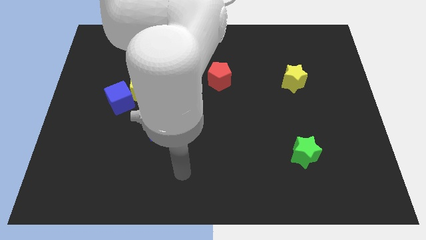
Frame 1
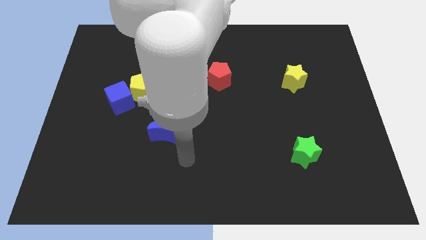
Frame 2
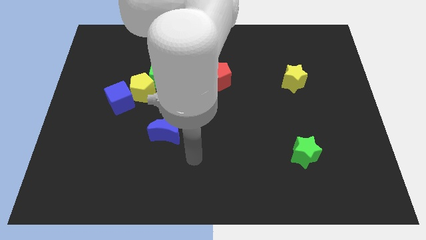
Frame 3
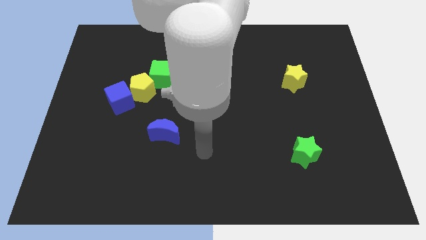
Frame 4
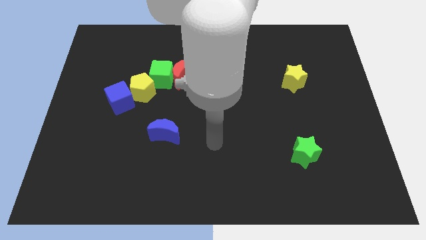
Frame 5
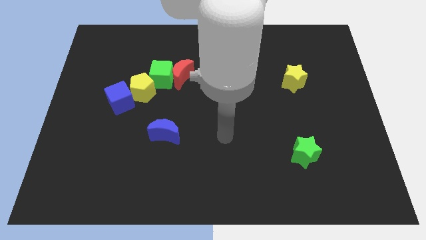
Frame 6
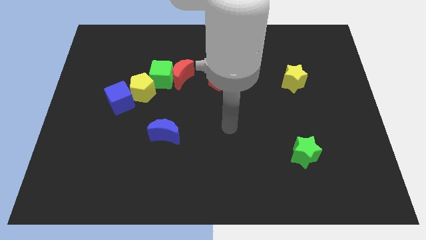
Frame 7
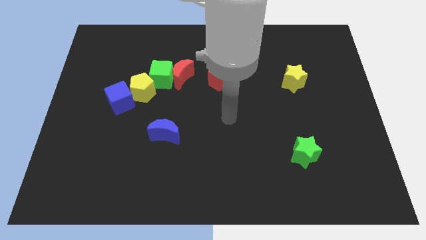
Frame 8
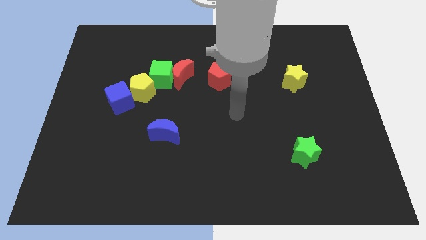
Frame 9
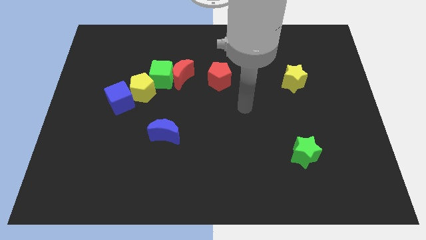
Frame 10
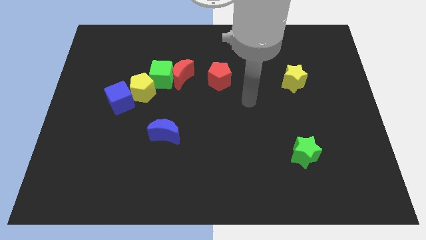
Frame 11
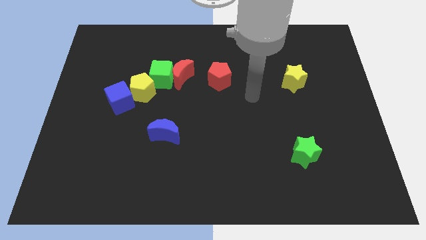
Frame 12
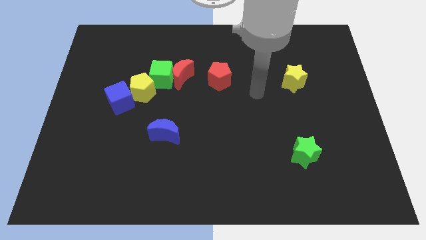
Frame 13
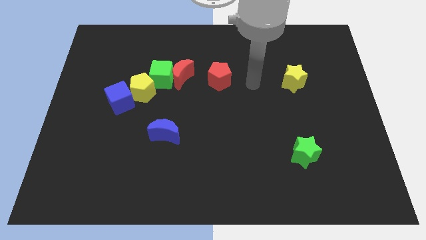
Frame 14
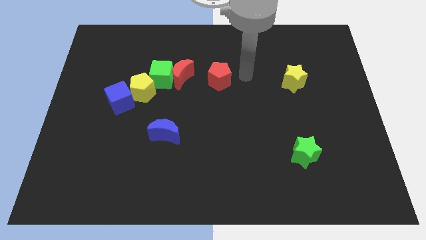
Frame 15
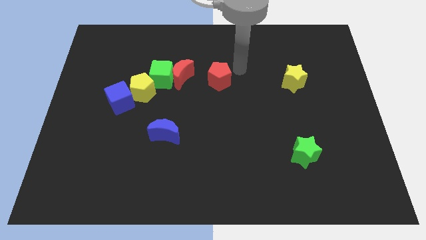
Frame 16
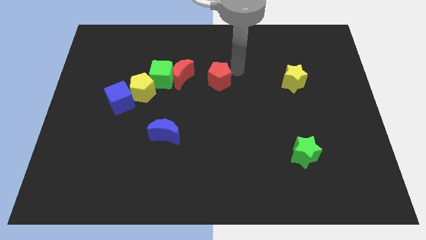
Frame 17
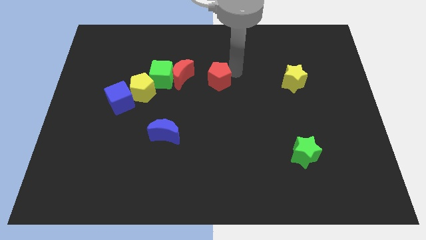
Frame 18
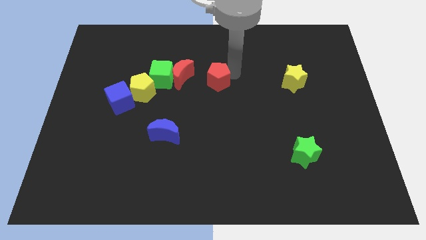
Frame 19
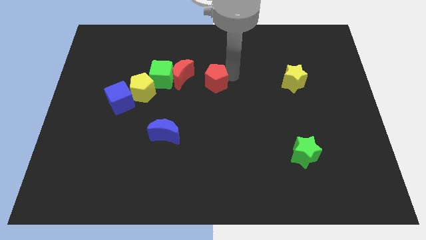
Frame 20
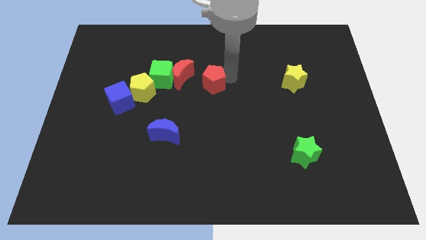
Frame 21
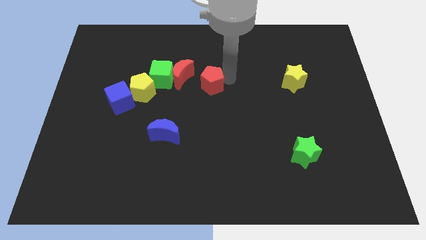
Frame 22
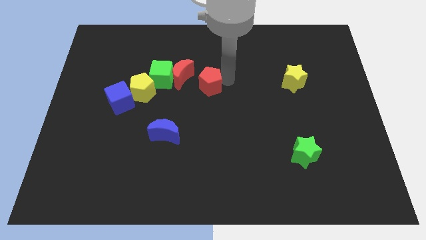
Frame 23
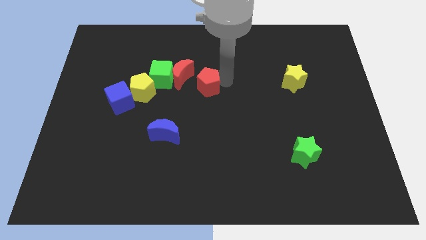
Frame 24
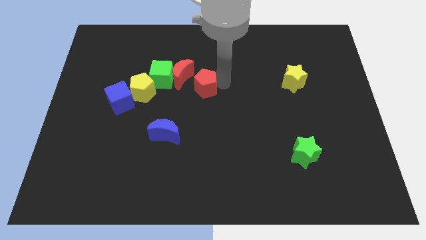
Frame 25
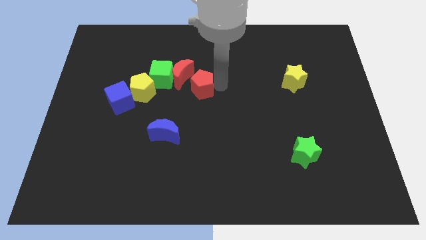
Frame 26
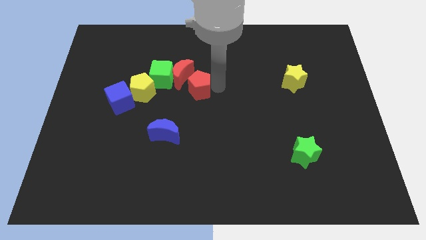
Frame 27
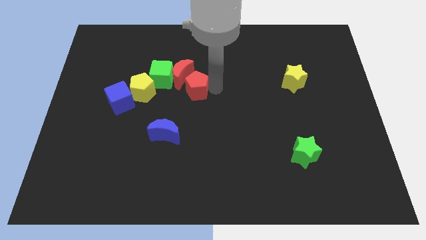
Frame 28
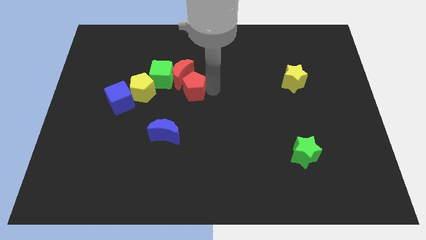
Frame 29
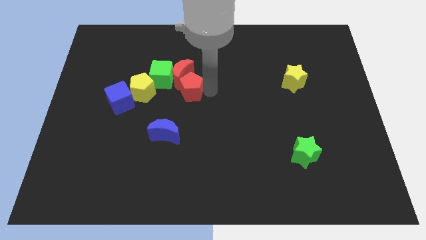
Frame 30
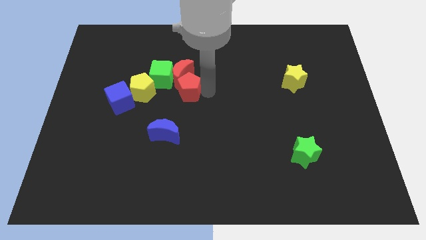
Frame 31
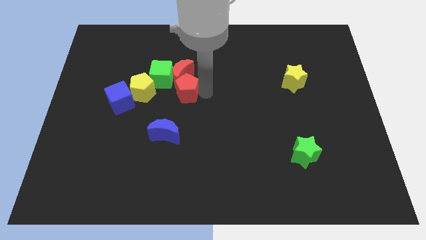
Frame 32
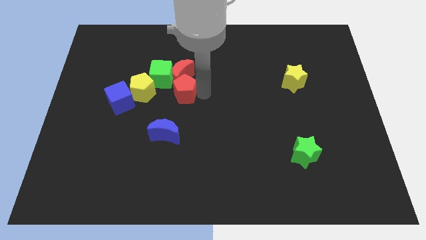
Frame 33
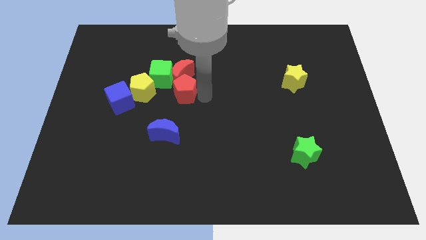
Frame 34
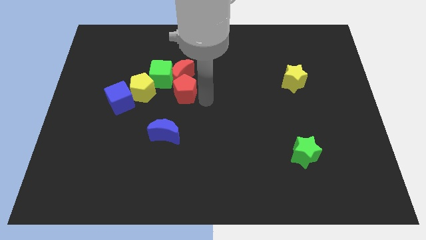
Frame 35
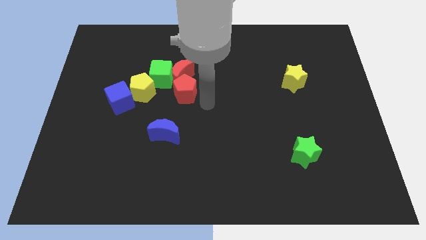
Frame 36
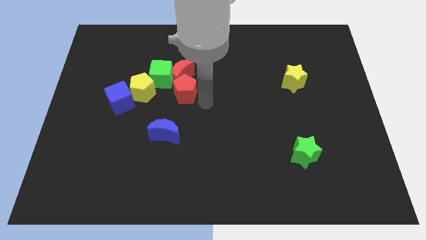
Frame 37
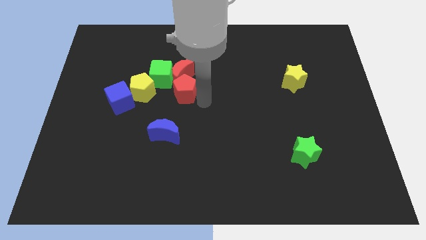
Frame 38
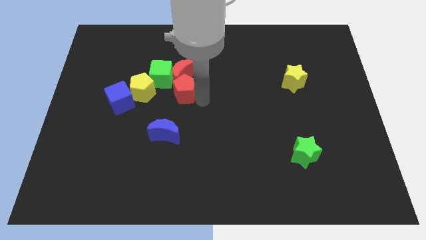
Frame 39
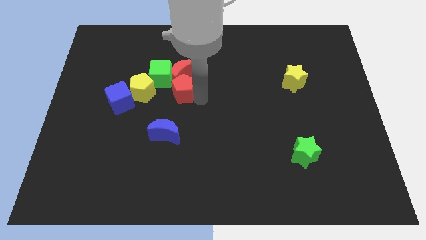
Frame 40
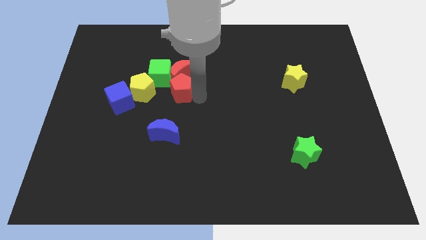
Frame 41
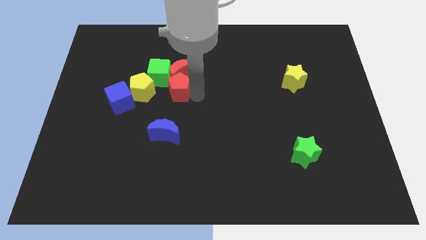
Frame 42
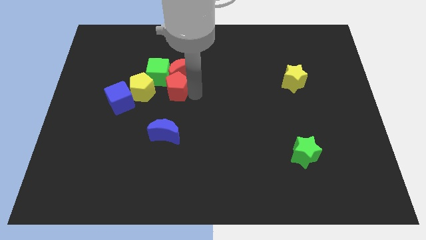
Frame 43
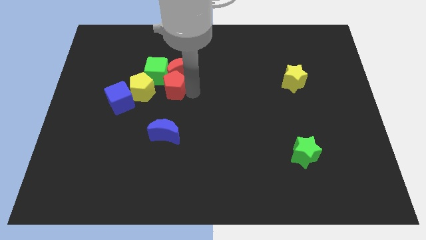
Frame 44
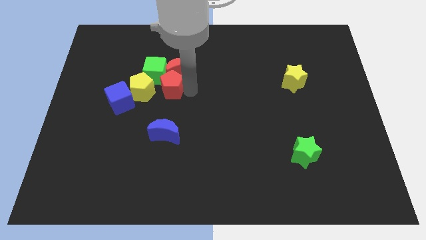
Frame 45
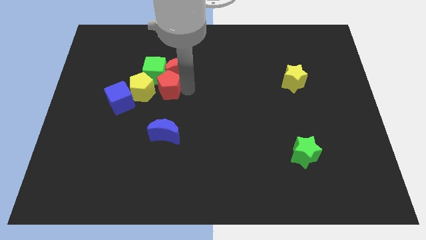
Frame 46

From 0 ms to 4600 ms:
put the red pentagon to the green cube

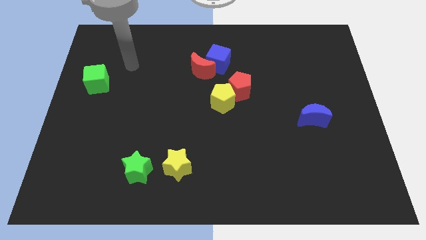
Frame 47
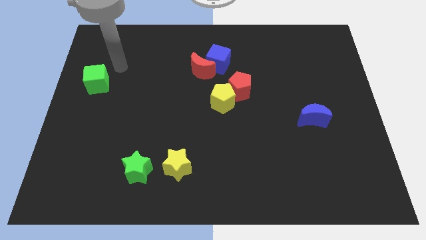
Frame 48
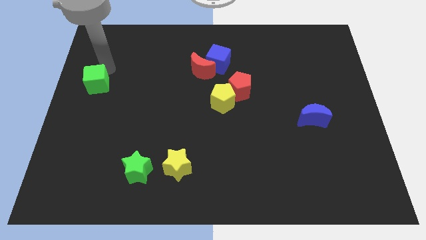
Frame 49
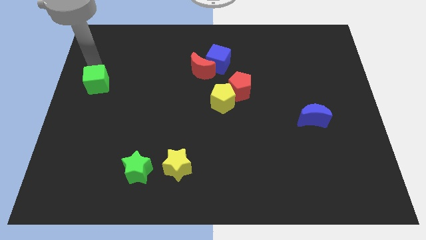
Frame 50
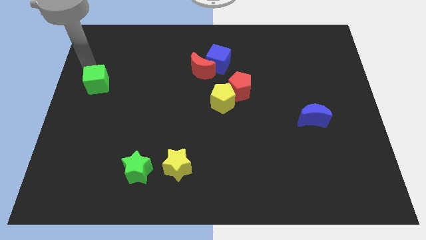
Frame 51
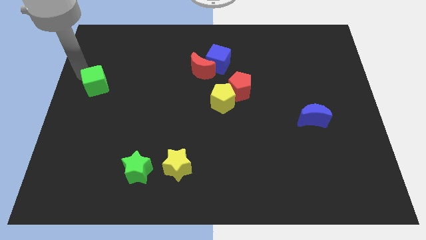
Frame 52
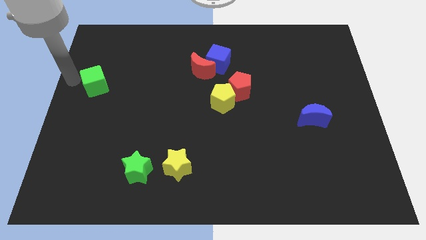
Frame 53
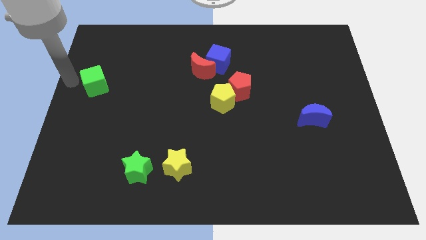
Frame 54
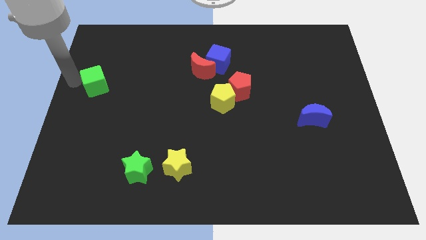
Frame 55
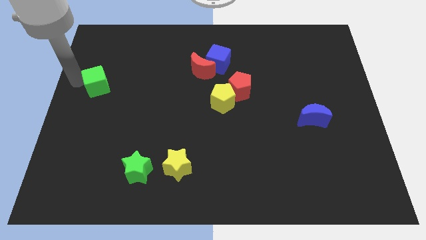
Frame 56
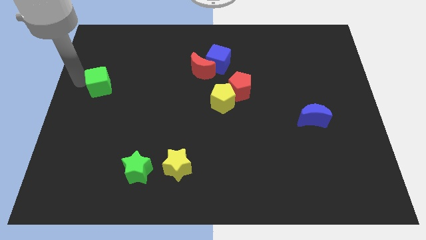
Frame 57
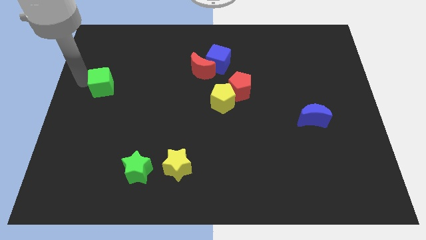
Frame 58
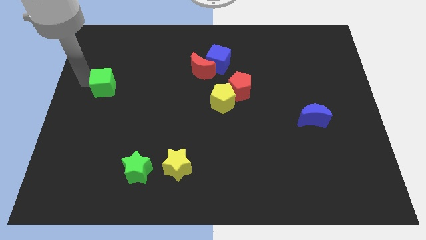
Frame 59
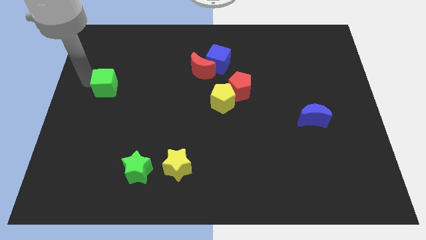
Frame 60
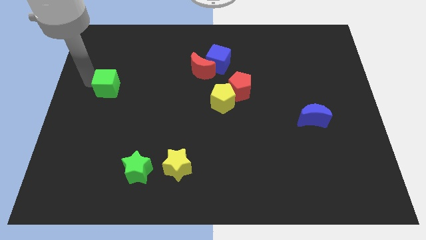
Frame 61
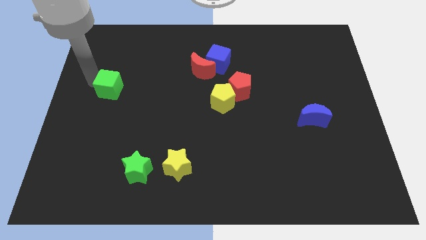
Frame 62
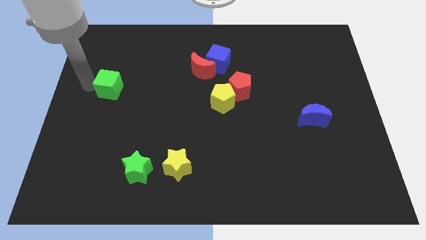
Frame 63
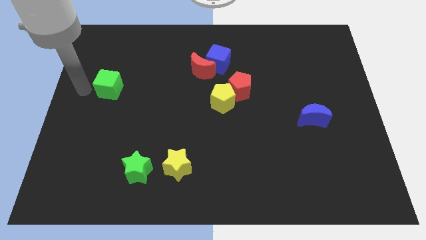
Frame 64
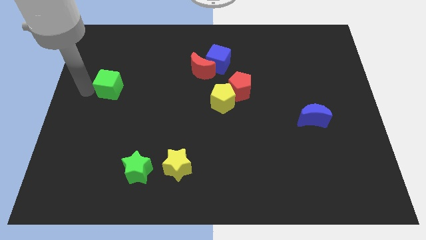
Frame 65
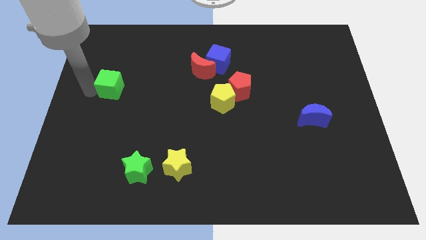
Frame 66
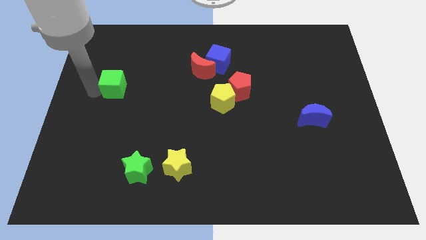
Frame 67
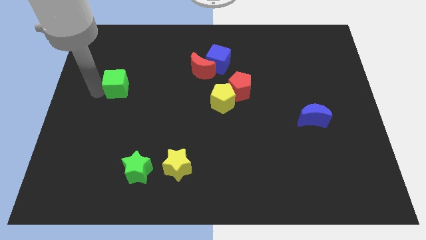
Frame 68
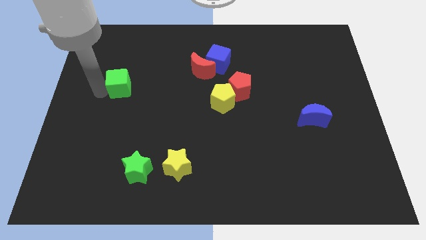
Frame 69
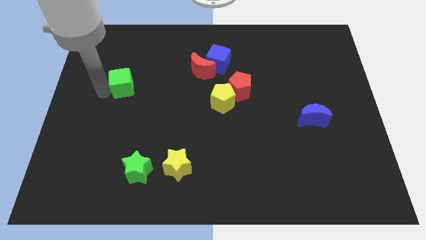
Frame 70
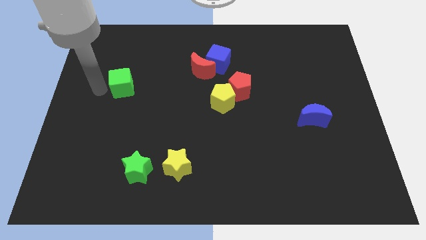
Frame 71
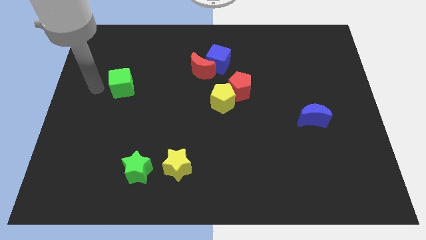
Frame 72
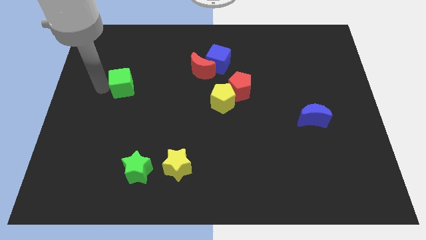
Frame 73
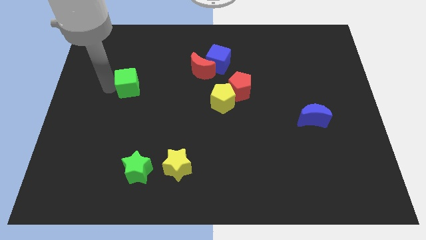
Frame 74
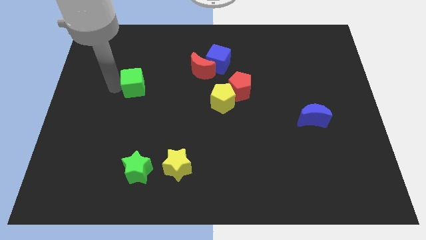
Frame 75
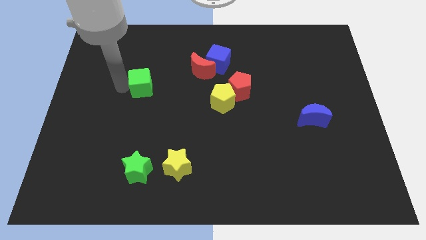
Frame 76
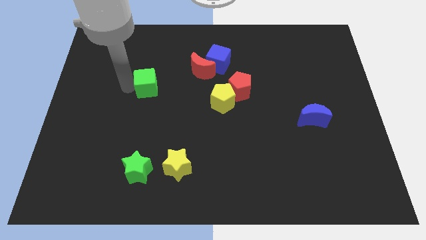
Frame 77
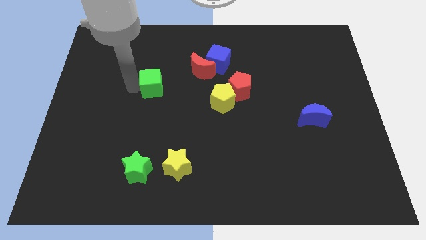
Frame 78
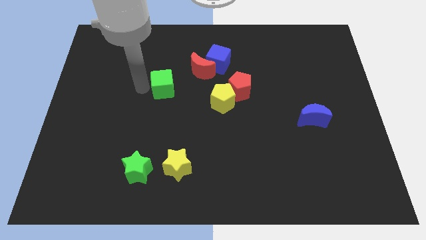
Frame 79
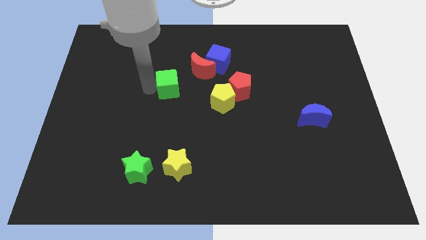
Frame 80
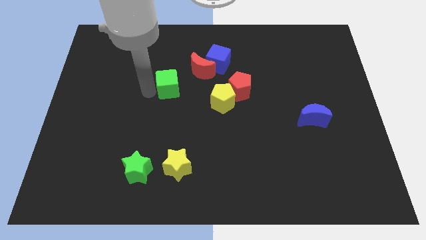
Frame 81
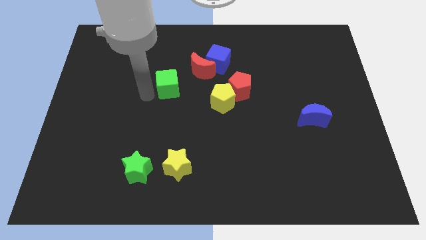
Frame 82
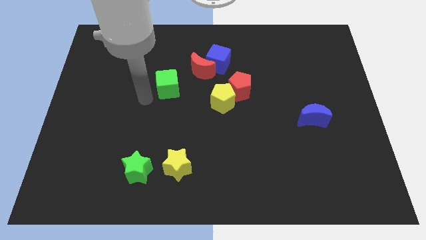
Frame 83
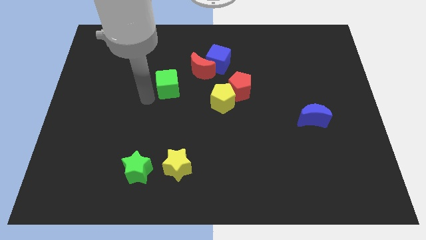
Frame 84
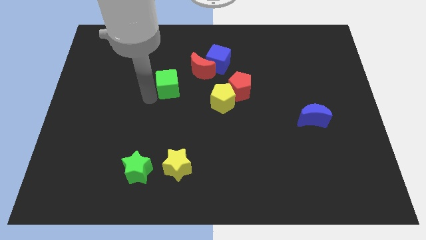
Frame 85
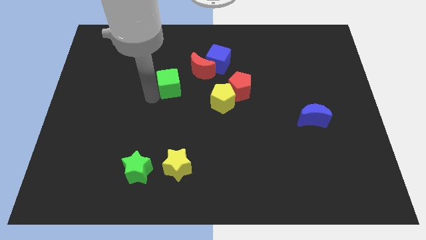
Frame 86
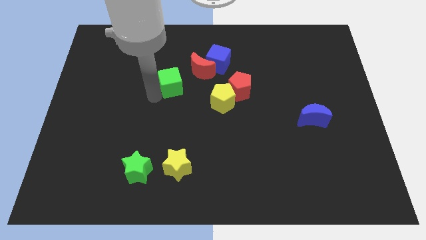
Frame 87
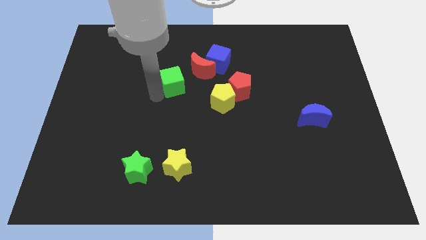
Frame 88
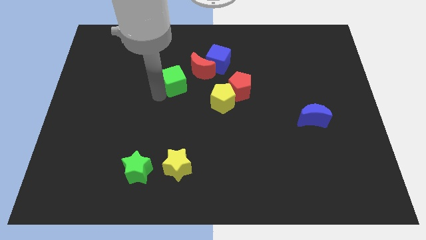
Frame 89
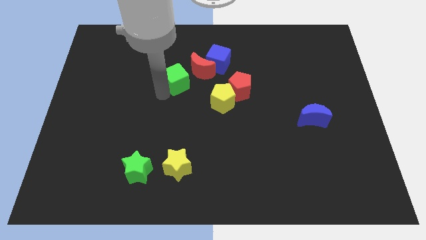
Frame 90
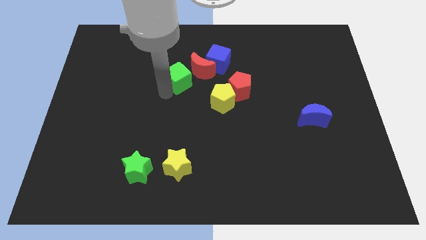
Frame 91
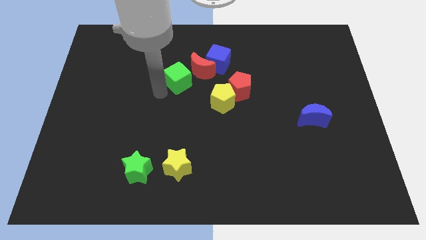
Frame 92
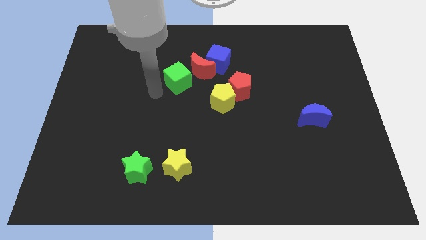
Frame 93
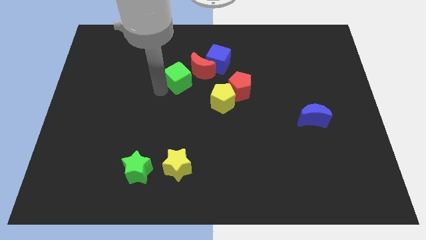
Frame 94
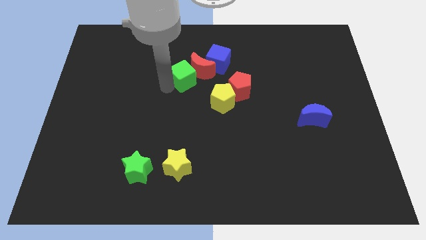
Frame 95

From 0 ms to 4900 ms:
push the green cube close to the red moon
